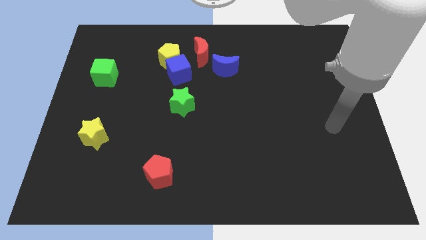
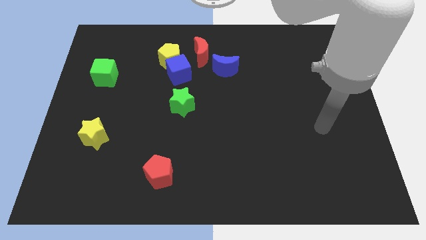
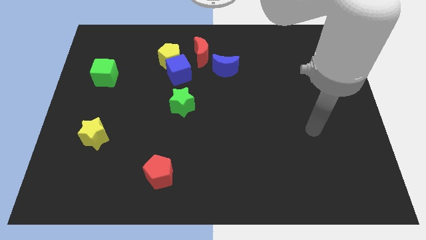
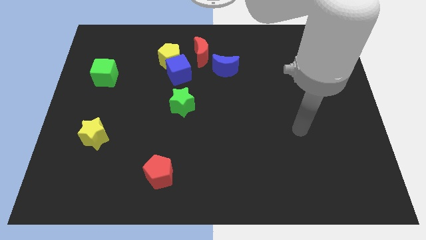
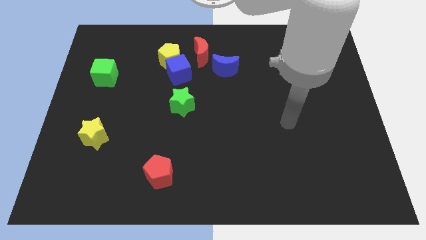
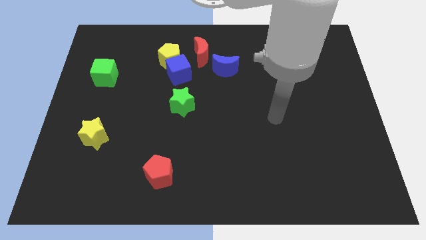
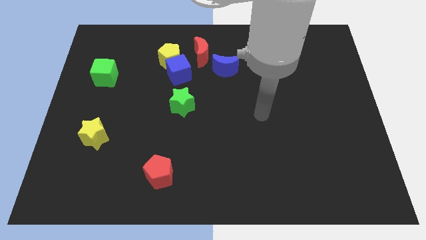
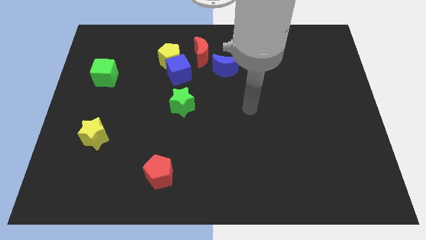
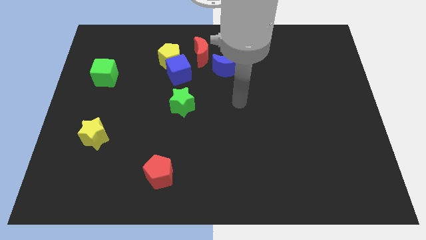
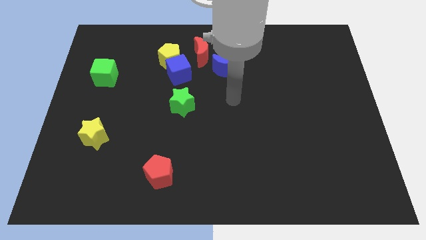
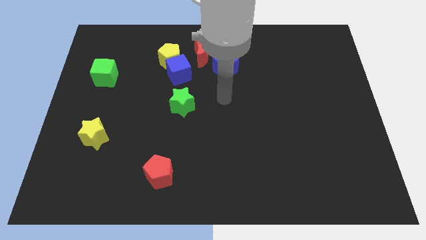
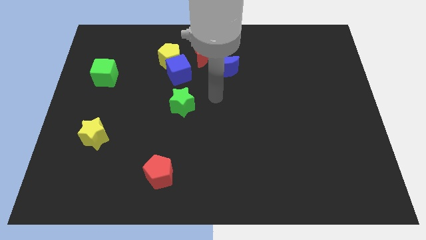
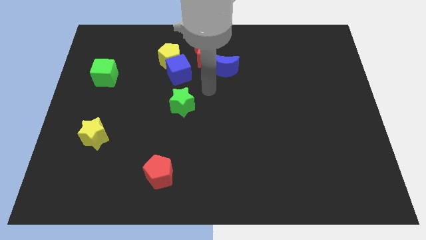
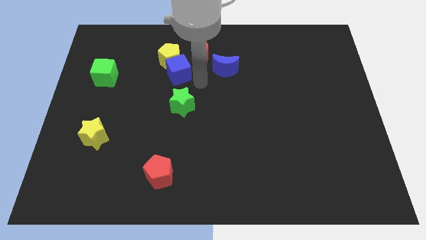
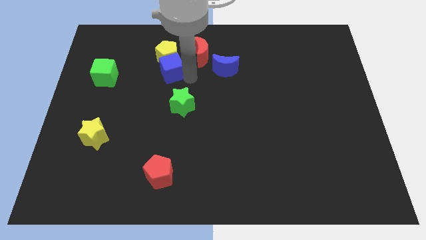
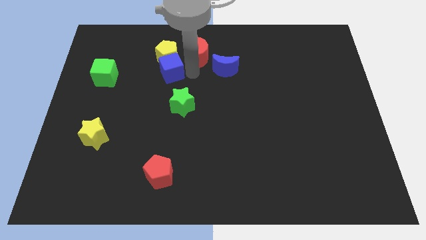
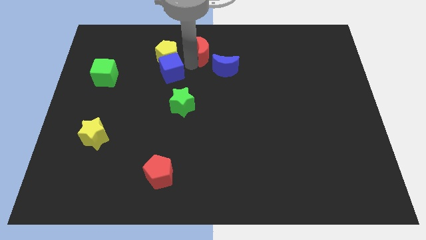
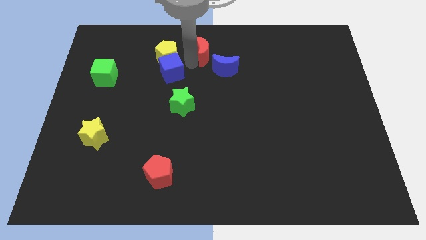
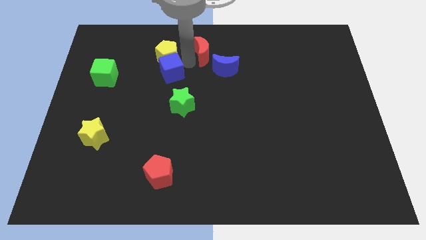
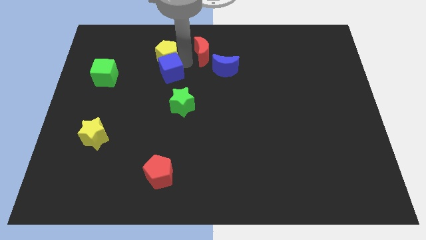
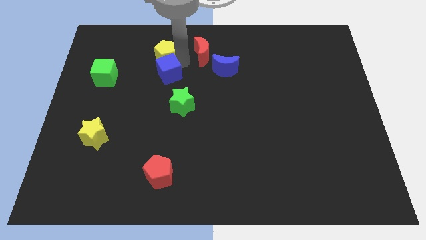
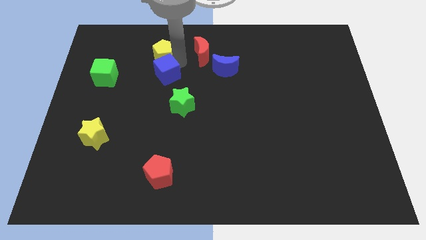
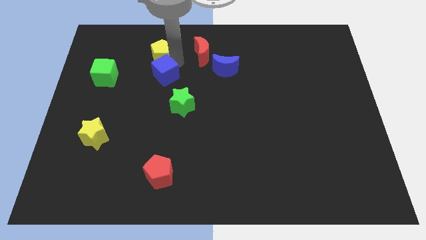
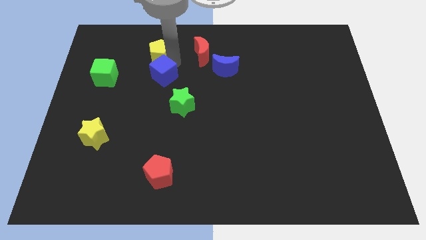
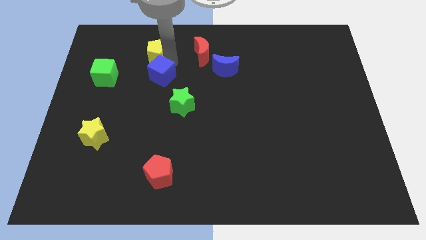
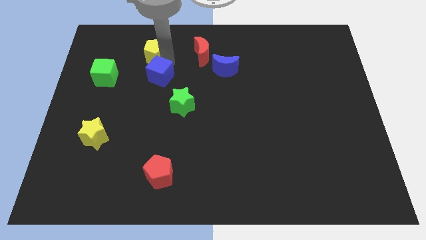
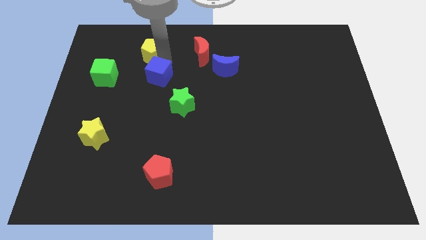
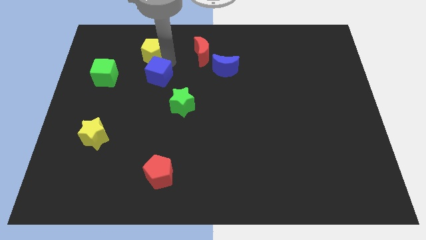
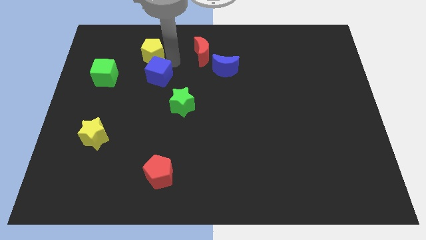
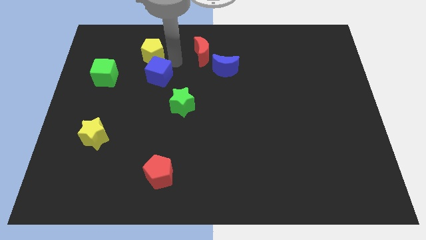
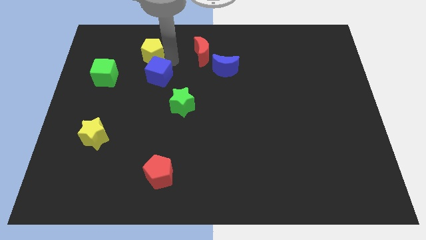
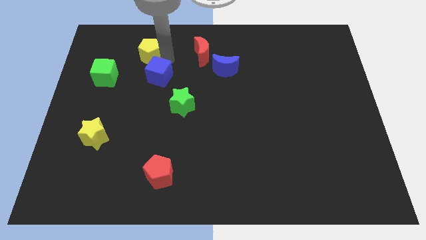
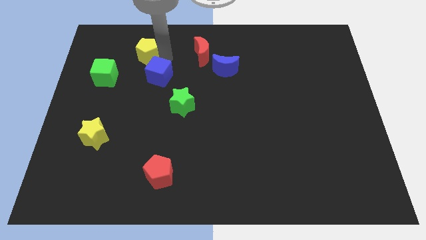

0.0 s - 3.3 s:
separate the yellow pentagon from the blue cube and red moon

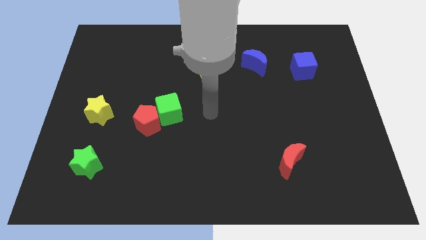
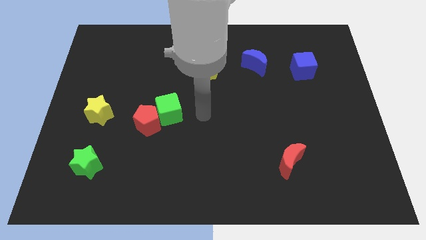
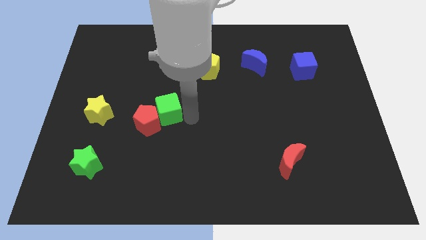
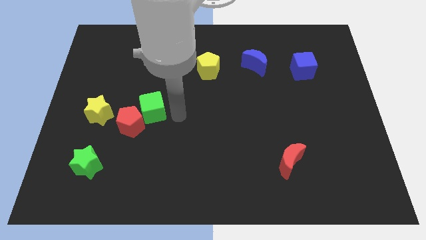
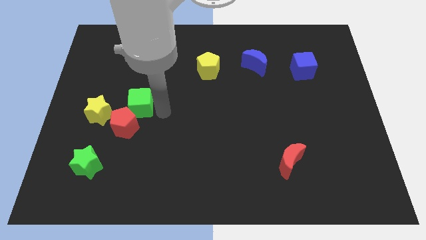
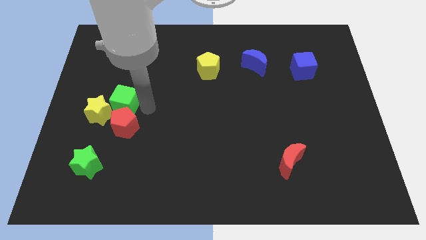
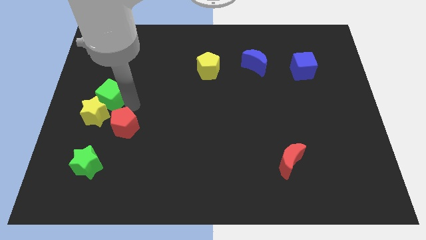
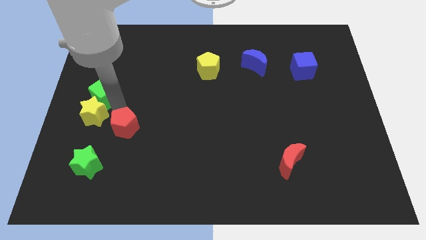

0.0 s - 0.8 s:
pull the red pentagon apart from the green cube

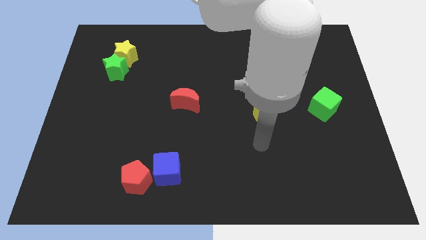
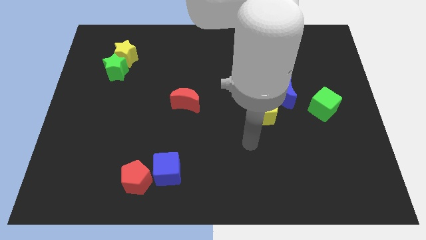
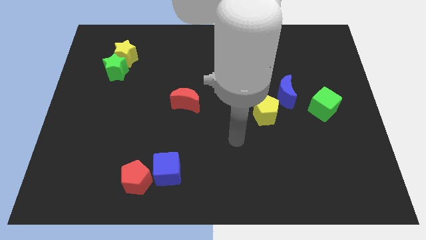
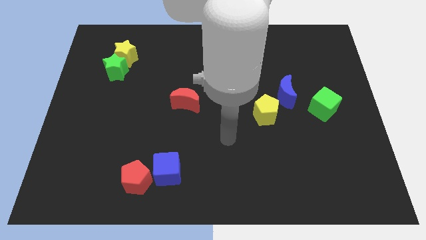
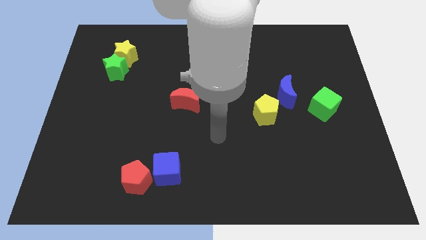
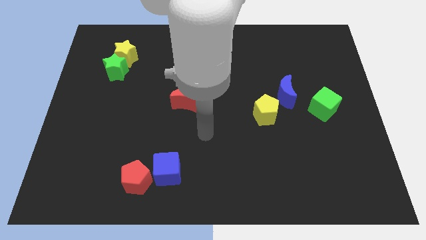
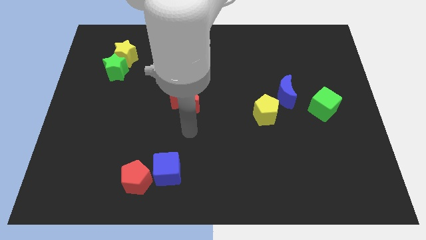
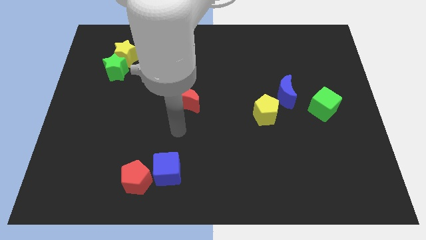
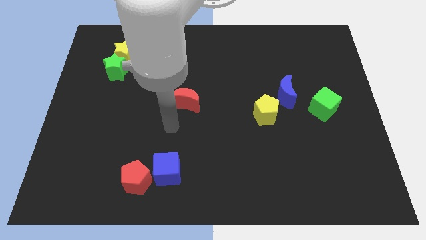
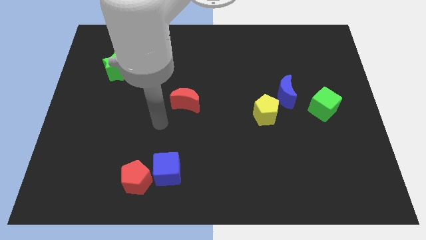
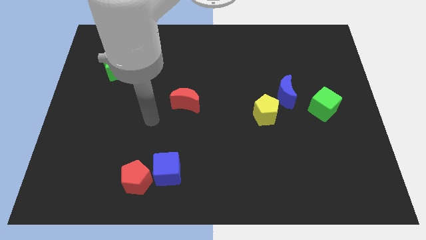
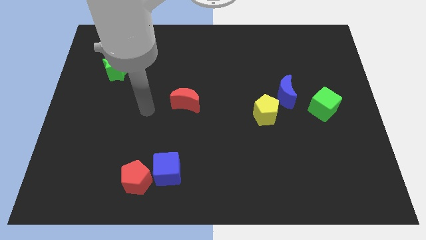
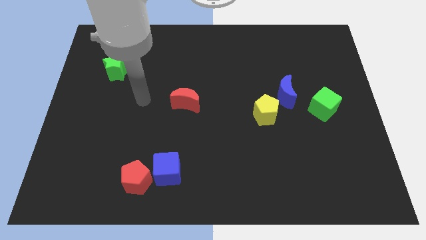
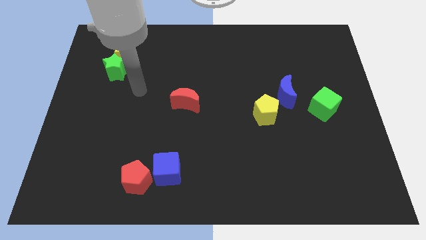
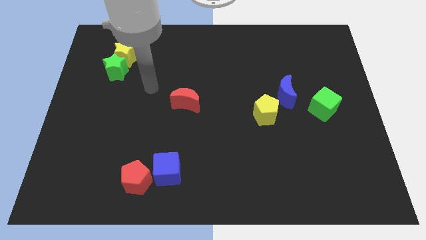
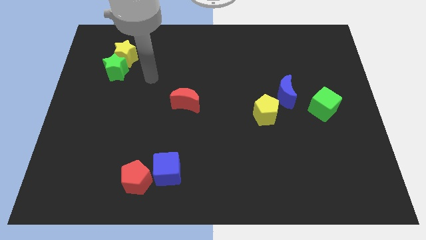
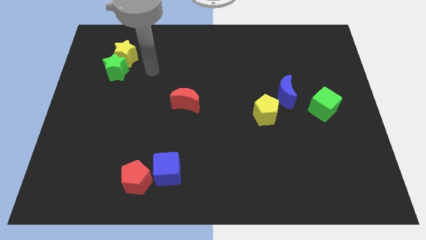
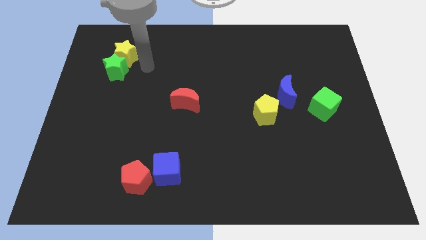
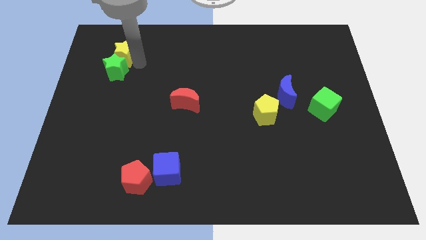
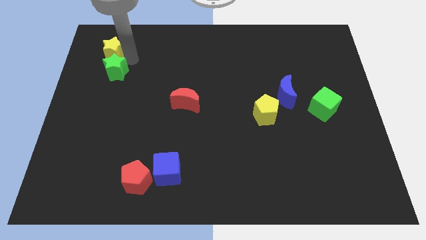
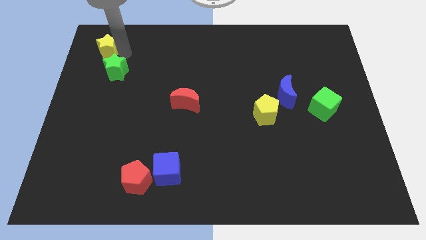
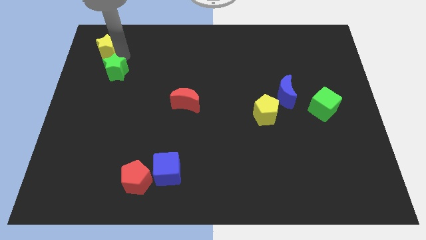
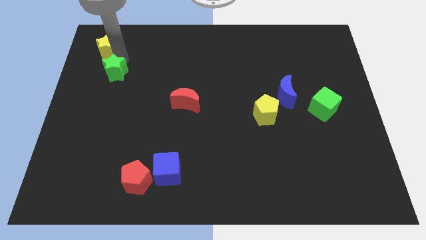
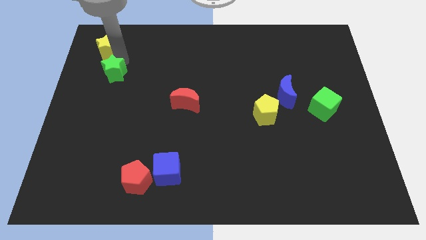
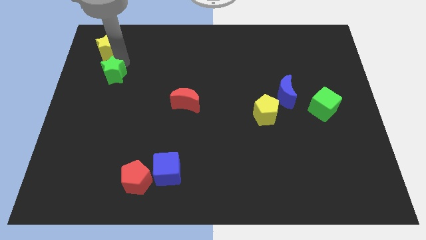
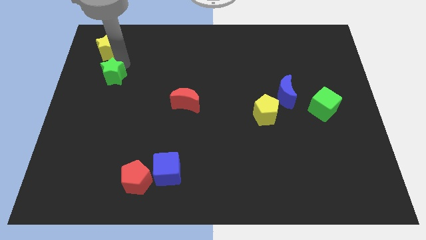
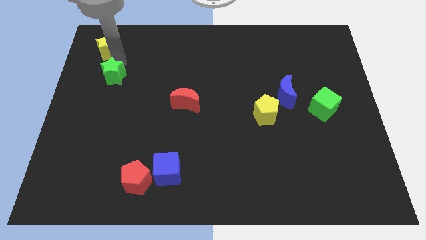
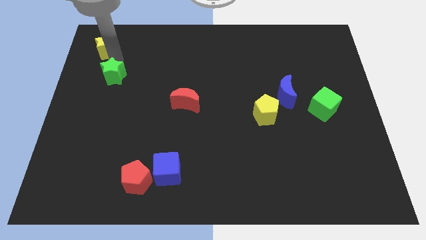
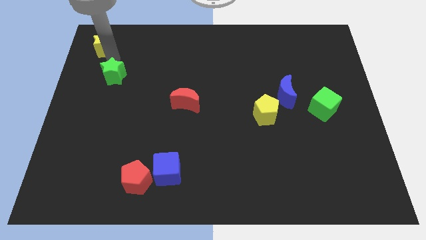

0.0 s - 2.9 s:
pull the green star apart from the yellow star

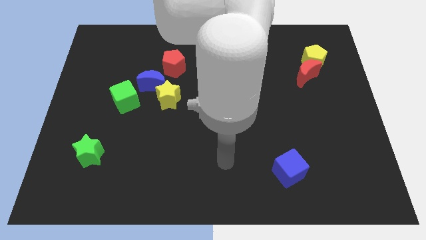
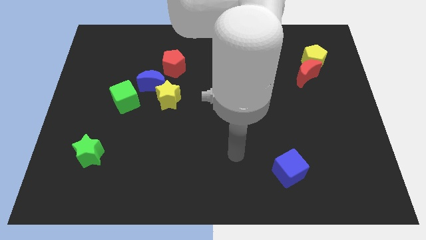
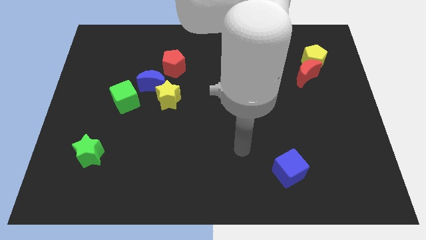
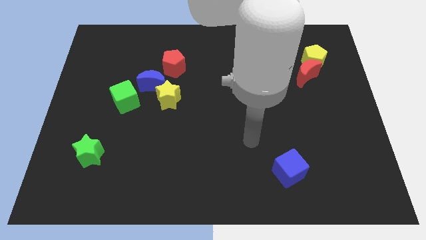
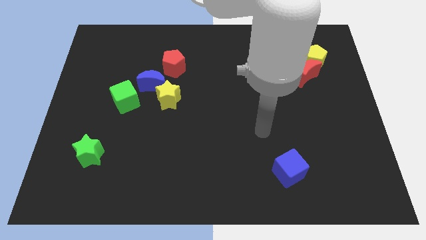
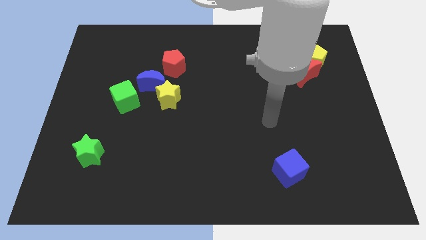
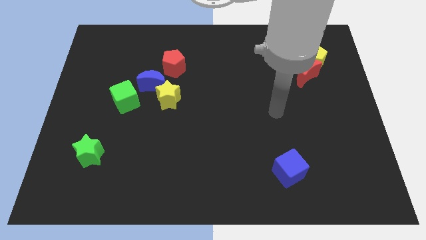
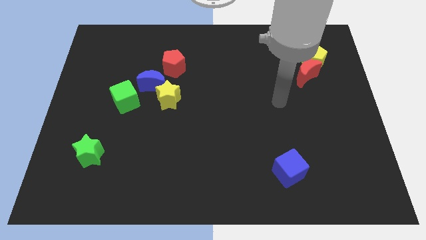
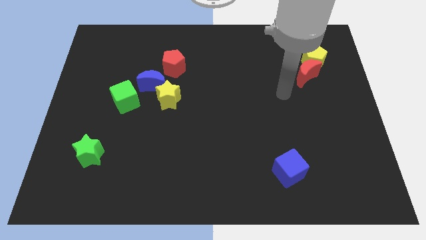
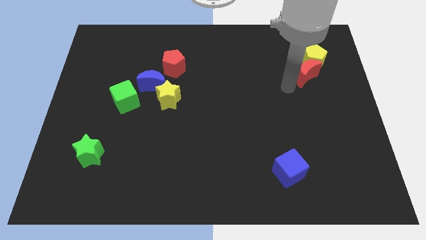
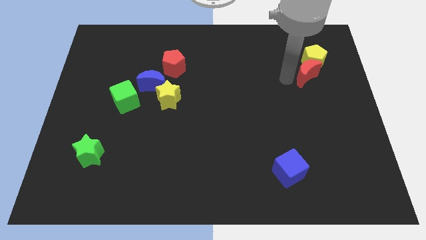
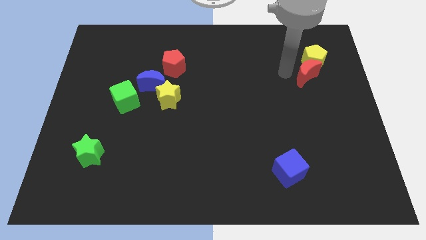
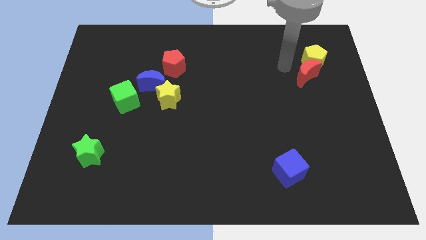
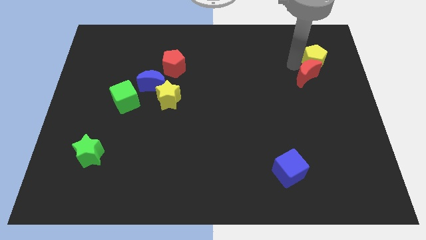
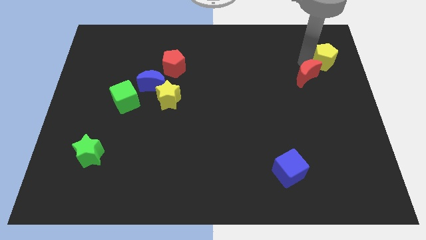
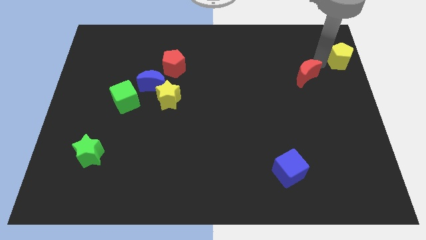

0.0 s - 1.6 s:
separate the red moon from the yellow pentagon

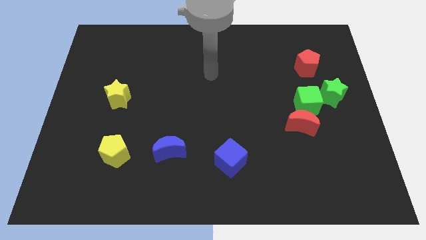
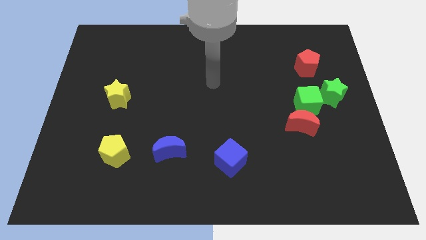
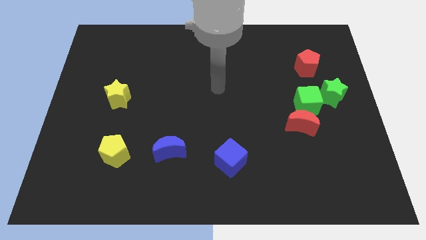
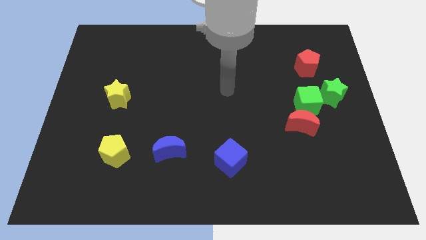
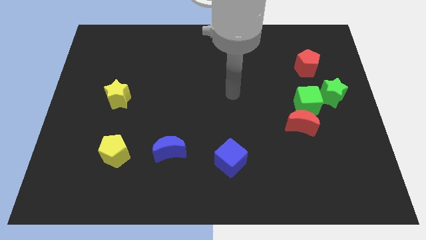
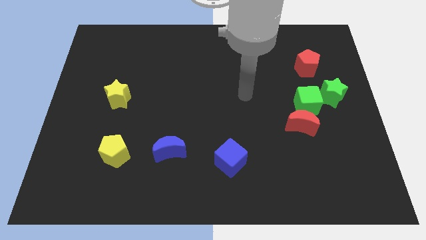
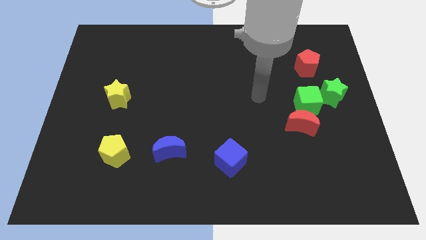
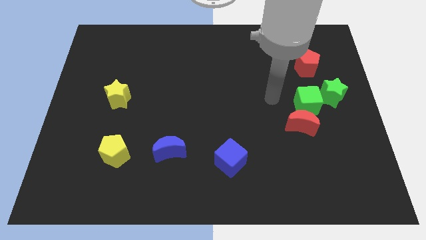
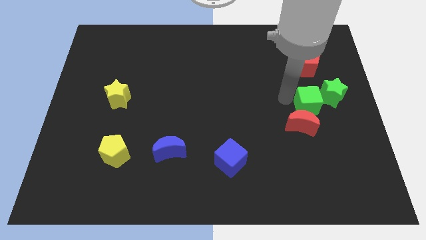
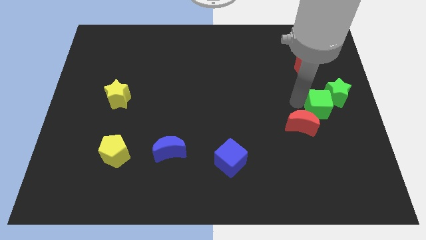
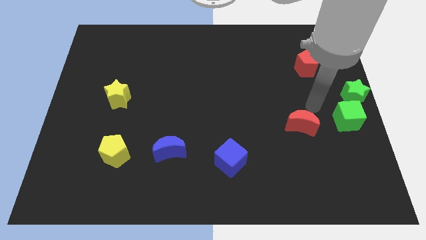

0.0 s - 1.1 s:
move the red moon away from the green cube
